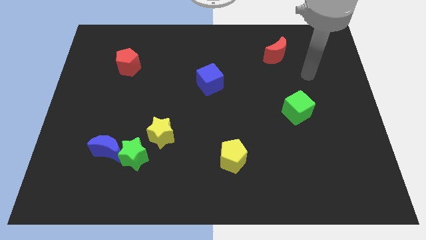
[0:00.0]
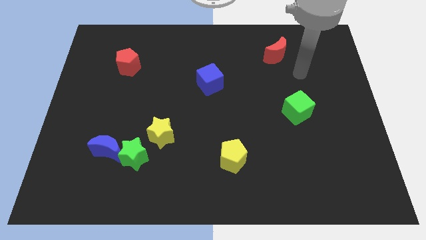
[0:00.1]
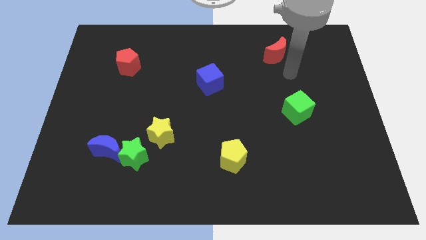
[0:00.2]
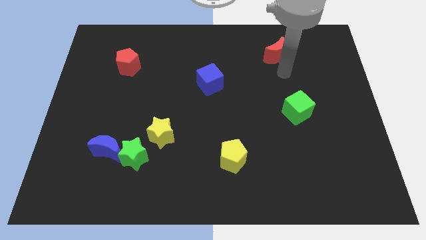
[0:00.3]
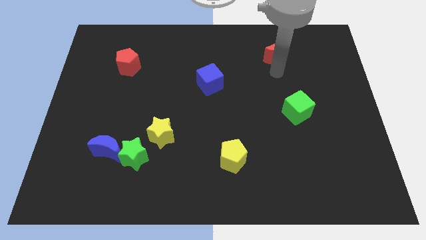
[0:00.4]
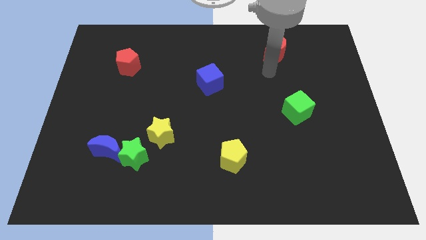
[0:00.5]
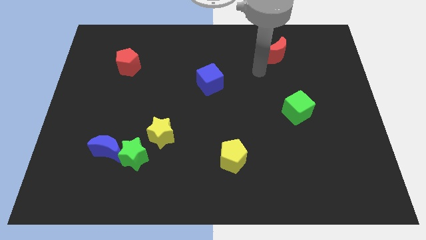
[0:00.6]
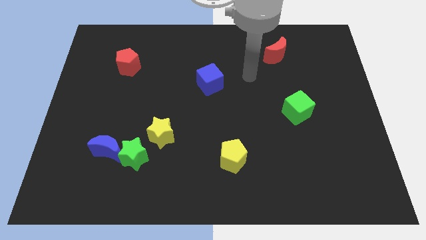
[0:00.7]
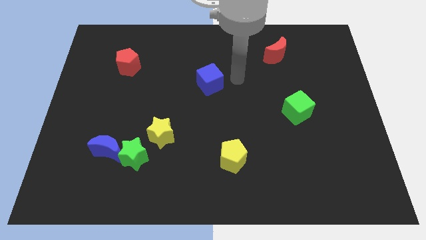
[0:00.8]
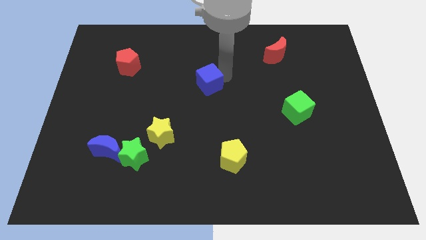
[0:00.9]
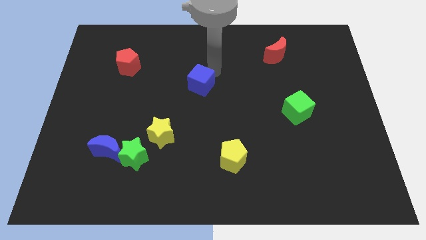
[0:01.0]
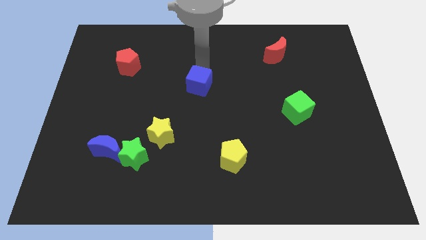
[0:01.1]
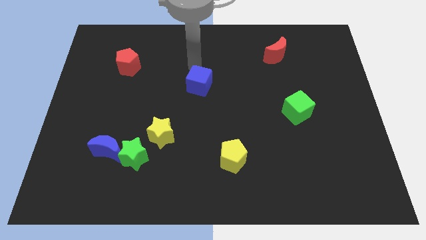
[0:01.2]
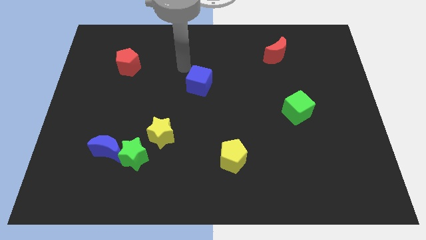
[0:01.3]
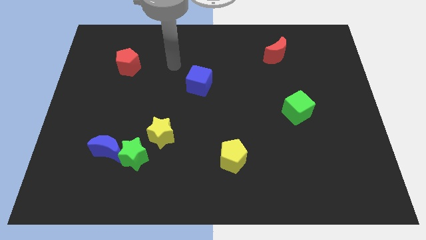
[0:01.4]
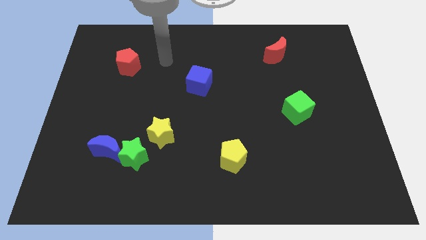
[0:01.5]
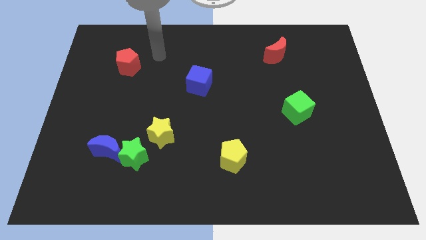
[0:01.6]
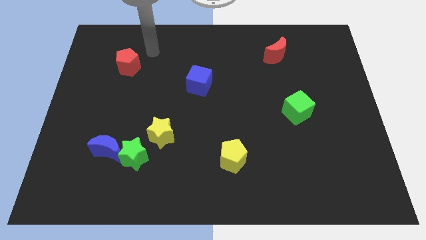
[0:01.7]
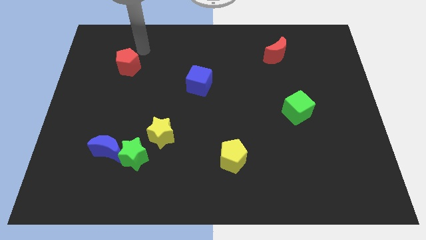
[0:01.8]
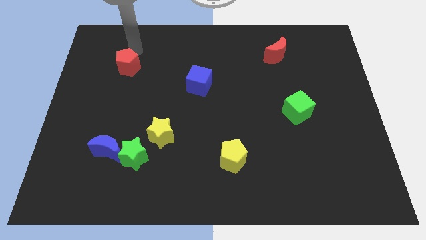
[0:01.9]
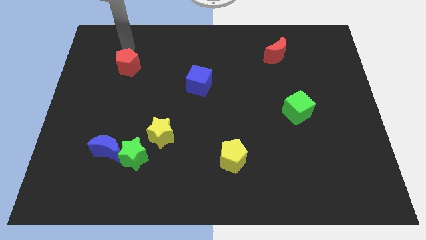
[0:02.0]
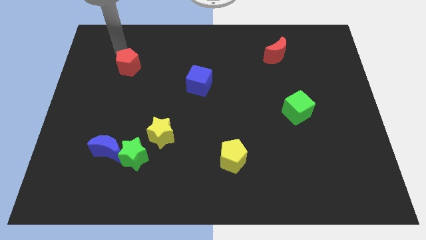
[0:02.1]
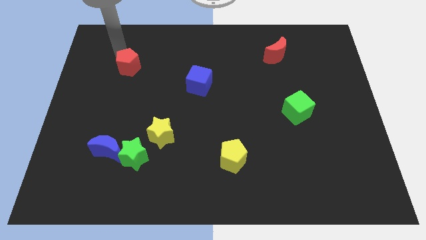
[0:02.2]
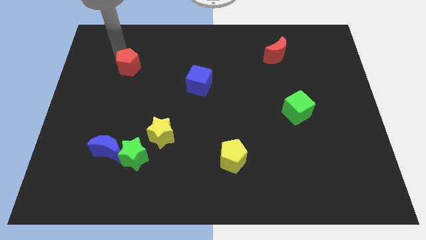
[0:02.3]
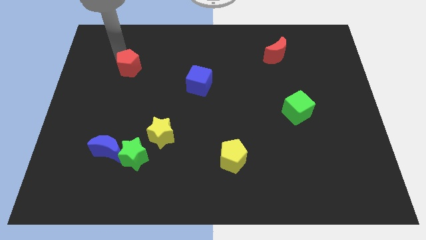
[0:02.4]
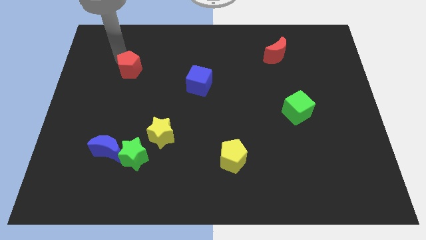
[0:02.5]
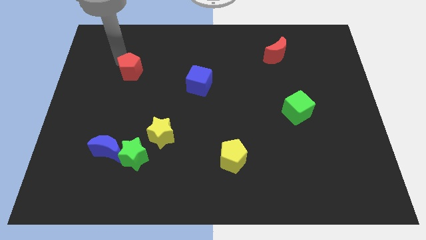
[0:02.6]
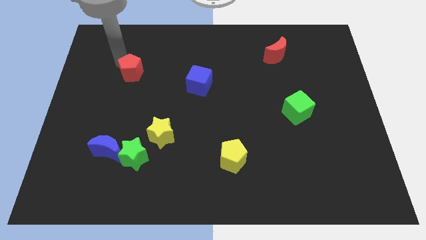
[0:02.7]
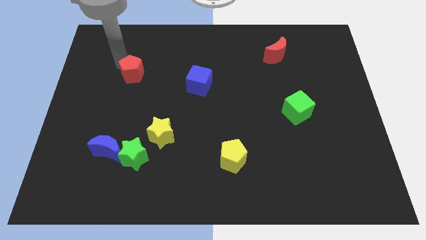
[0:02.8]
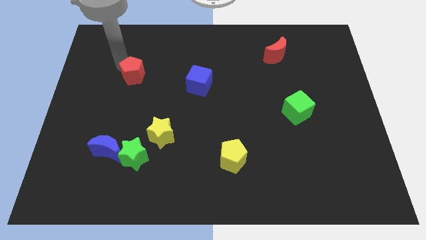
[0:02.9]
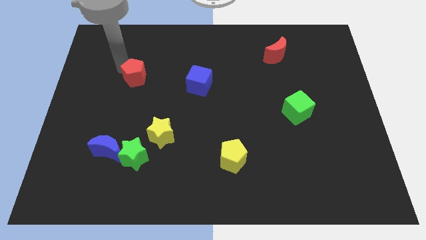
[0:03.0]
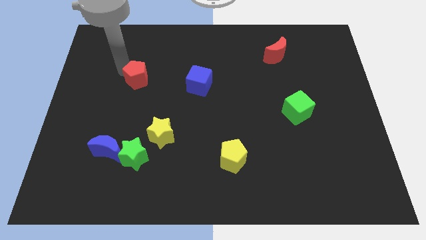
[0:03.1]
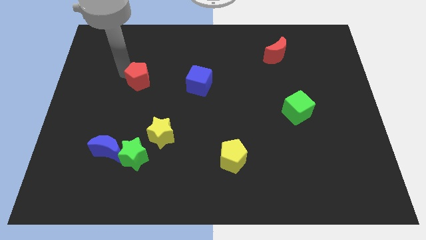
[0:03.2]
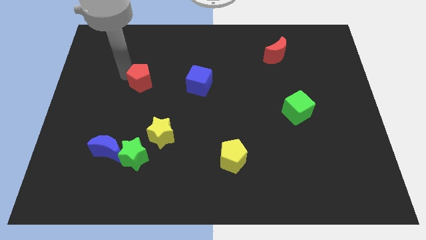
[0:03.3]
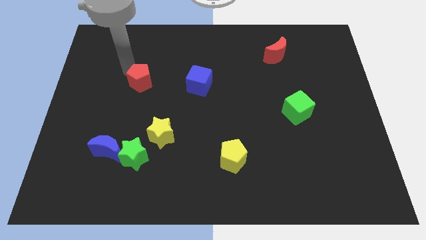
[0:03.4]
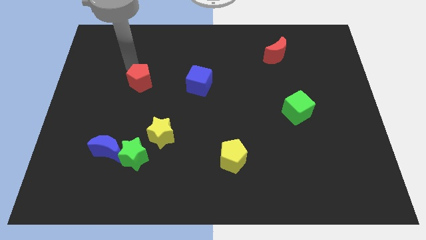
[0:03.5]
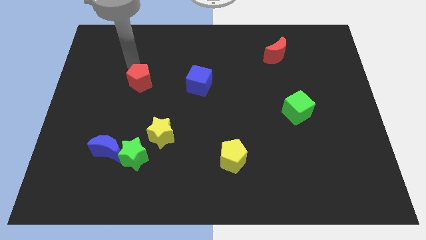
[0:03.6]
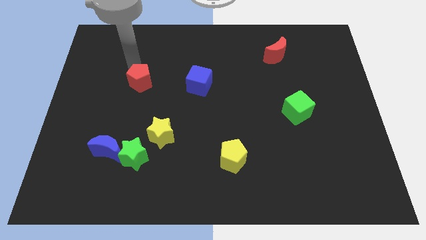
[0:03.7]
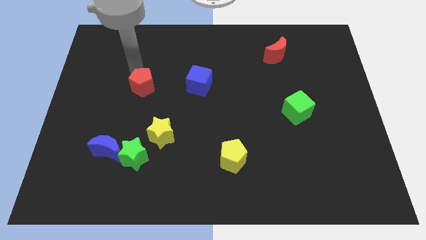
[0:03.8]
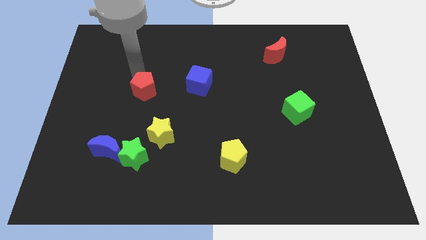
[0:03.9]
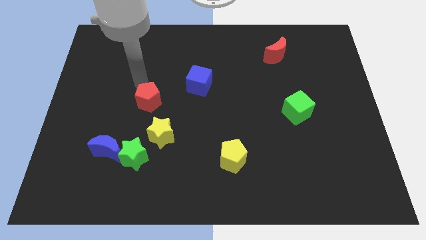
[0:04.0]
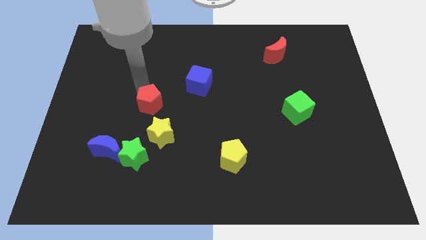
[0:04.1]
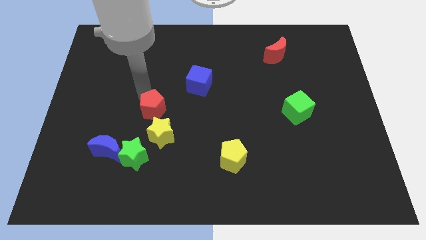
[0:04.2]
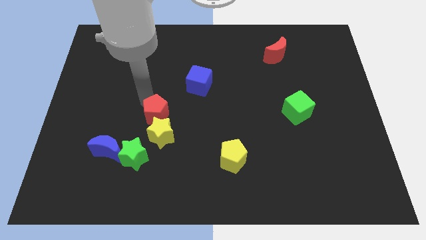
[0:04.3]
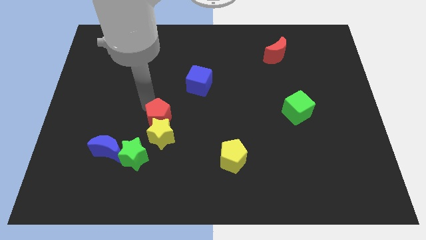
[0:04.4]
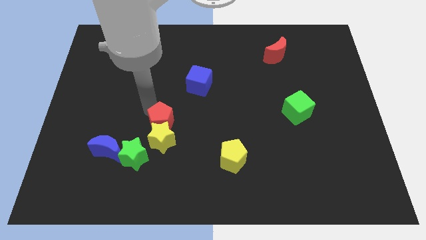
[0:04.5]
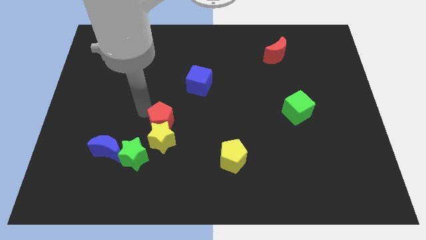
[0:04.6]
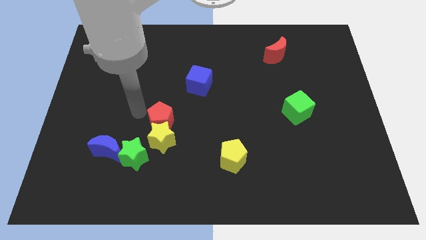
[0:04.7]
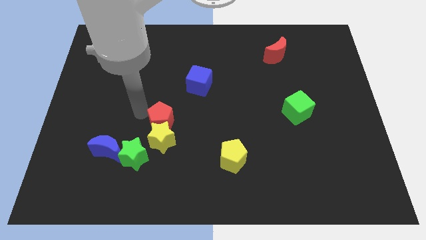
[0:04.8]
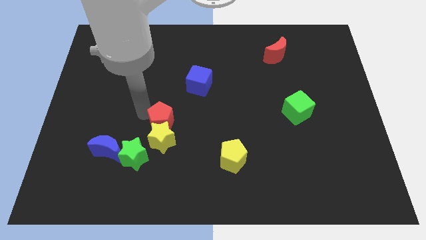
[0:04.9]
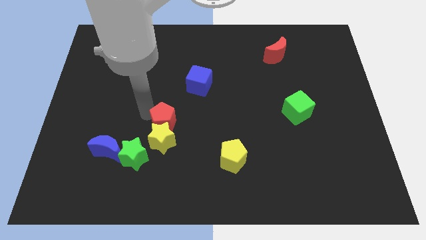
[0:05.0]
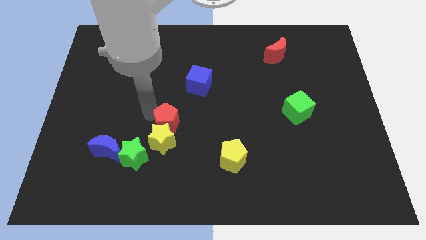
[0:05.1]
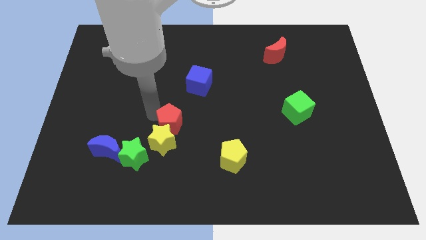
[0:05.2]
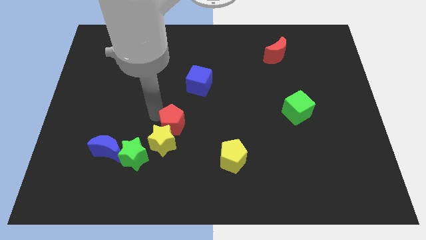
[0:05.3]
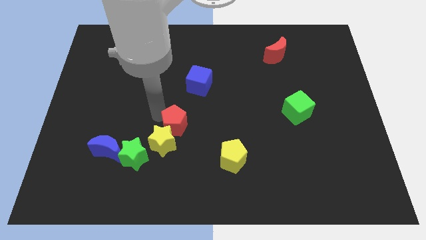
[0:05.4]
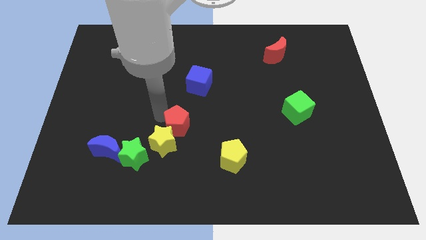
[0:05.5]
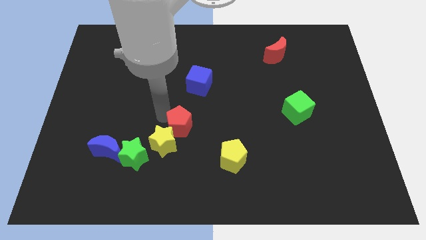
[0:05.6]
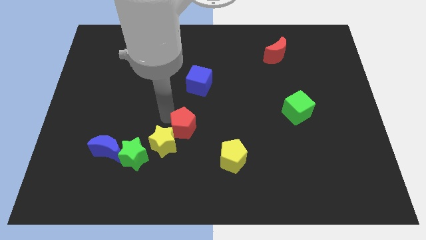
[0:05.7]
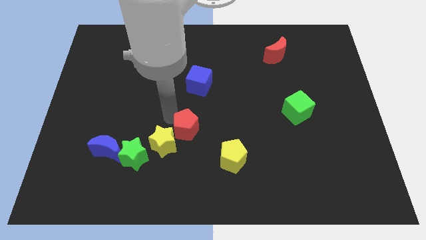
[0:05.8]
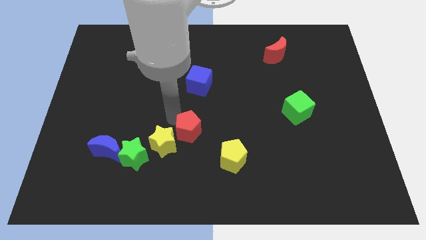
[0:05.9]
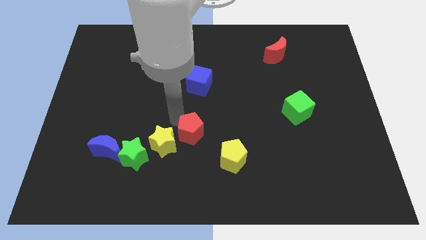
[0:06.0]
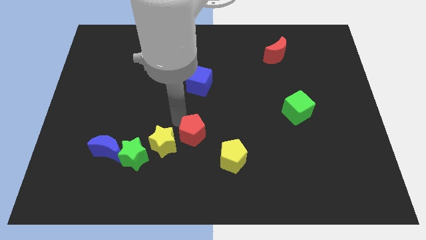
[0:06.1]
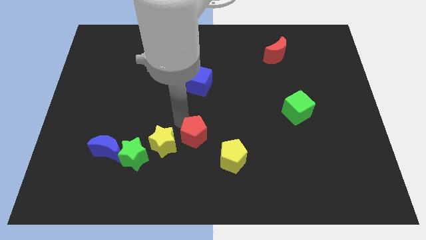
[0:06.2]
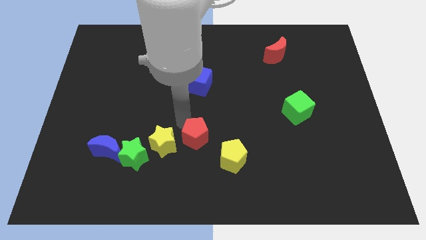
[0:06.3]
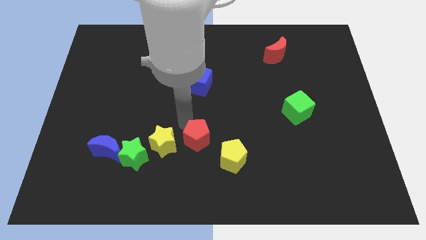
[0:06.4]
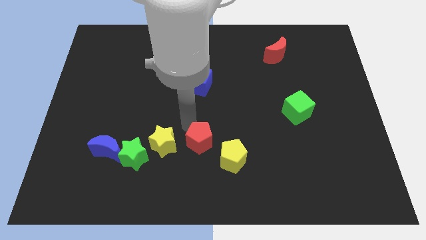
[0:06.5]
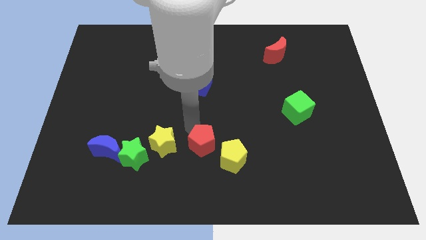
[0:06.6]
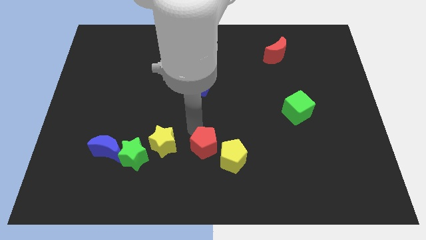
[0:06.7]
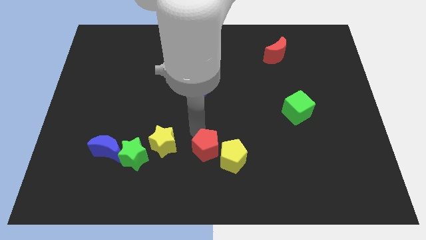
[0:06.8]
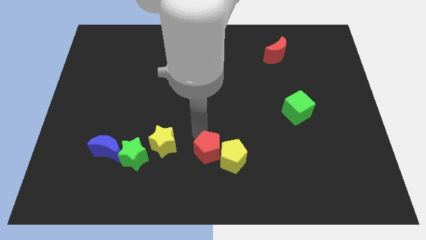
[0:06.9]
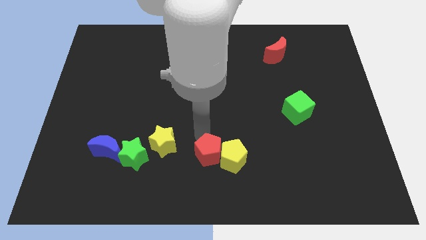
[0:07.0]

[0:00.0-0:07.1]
slide the red pentagon to the bottom
